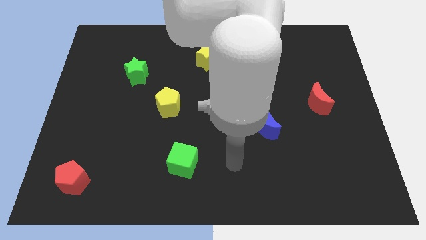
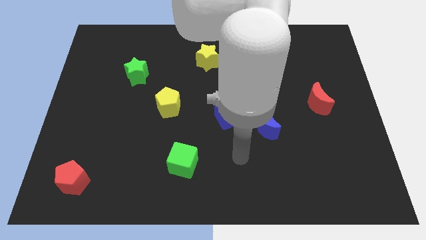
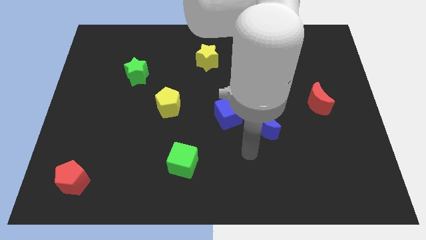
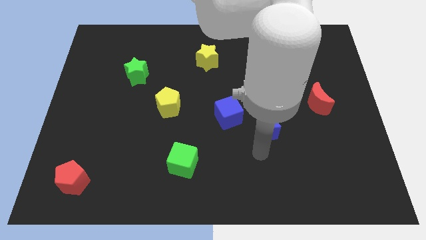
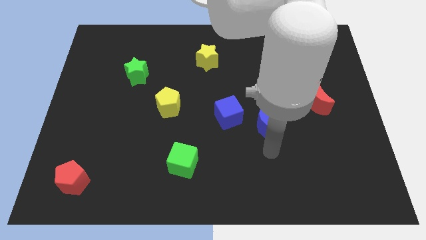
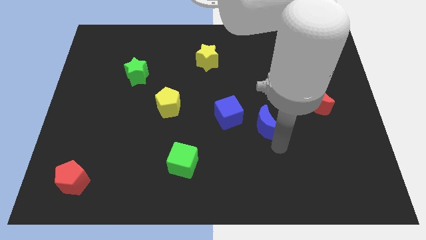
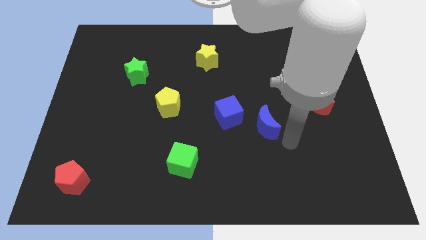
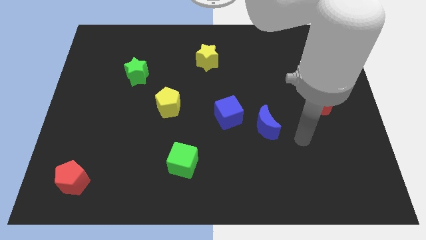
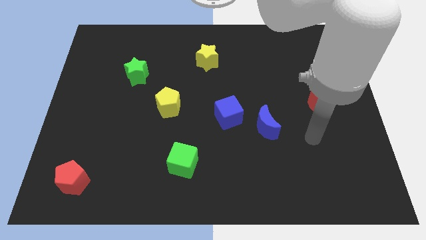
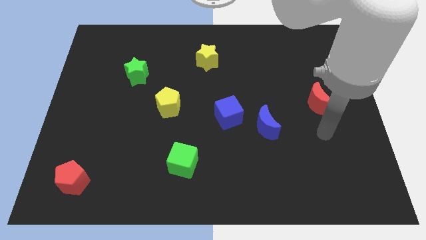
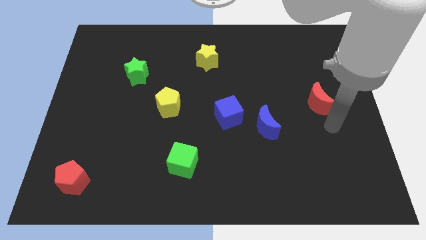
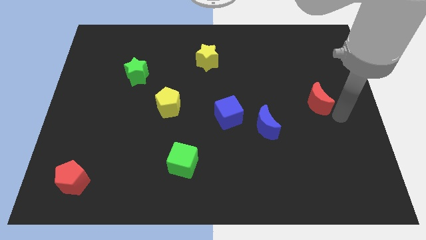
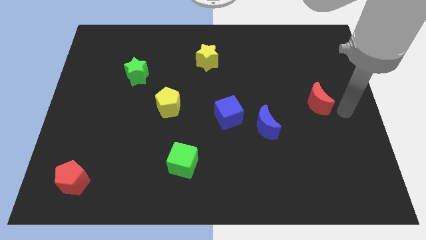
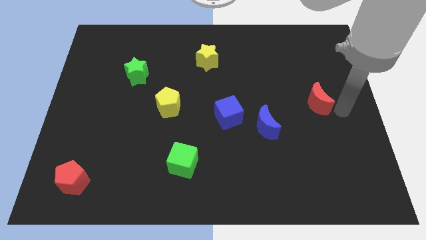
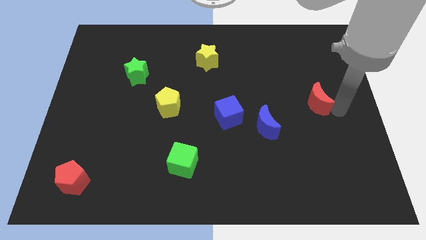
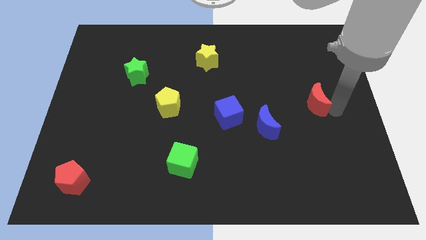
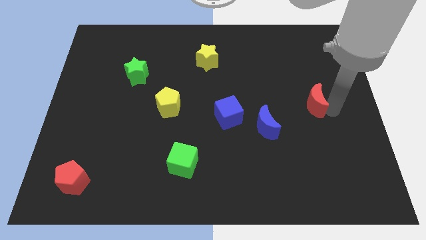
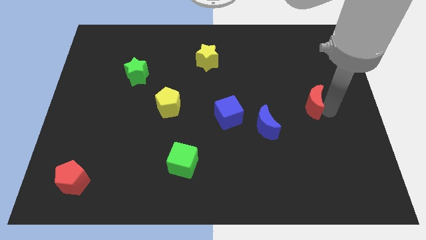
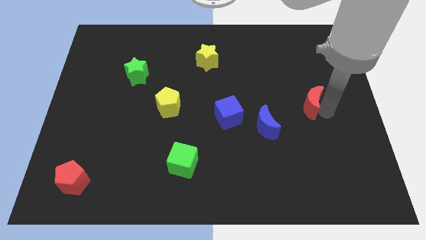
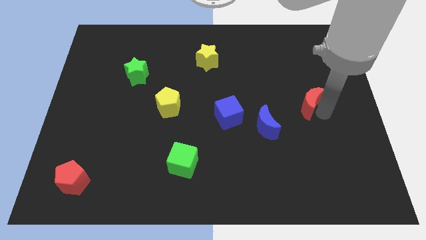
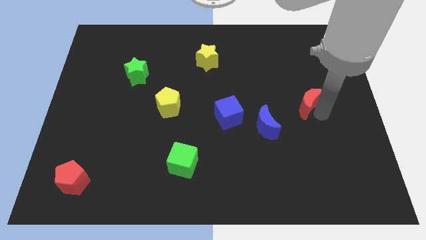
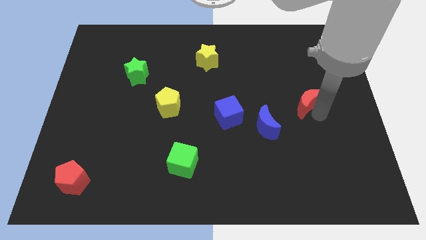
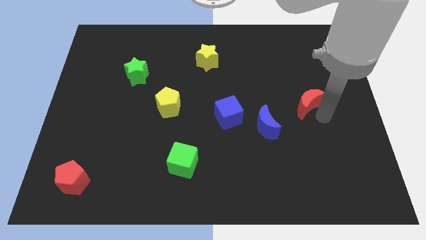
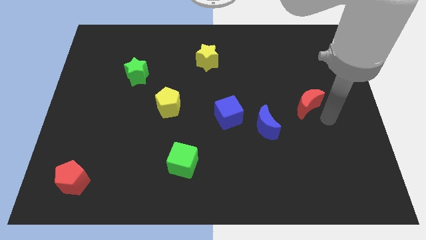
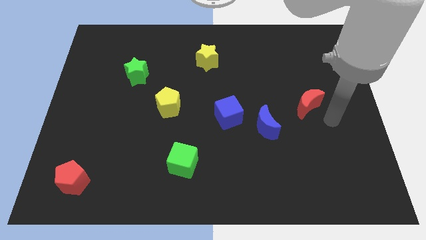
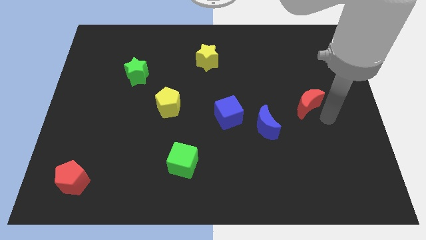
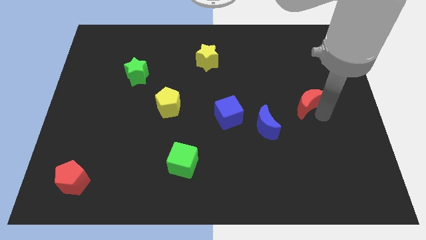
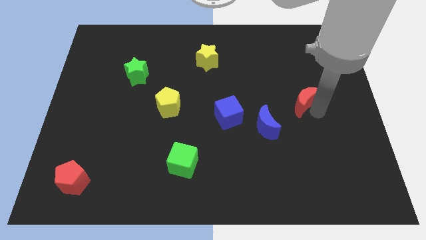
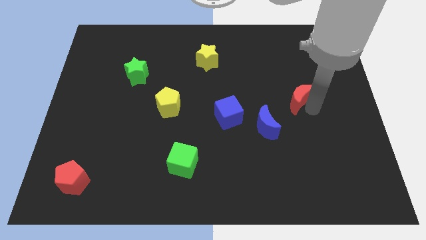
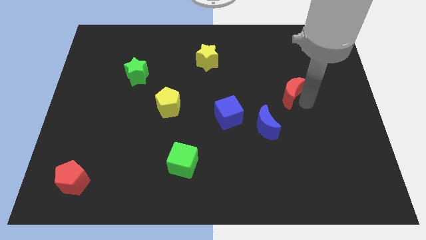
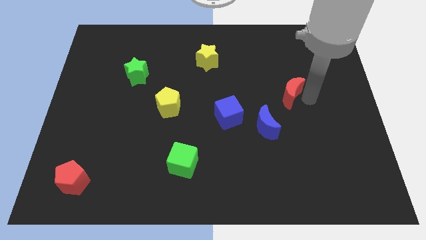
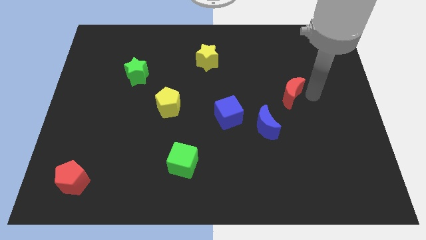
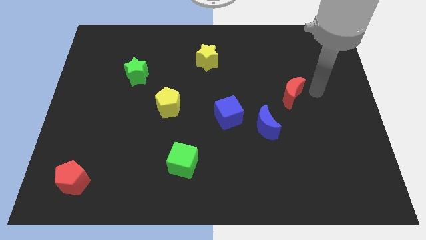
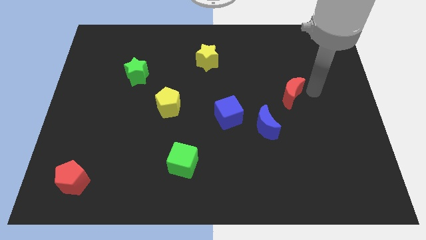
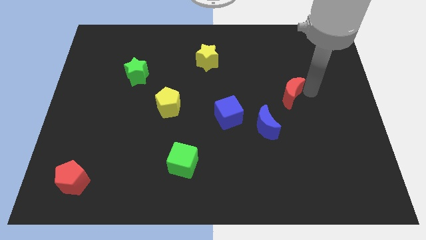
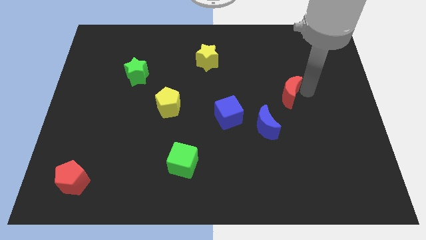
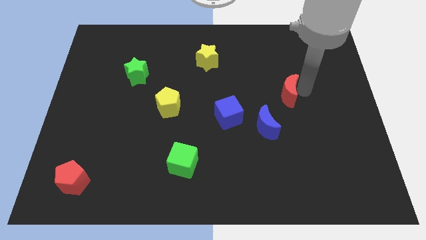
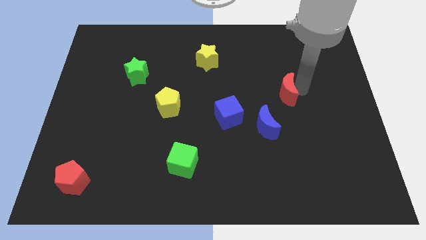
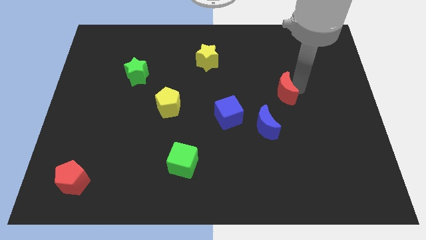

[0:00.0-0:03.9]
push the red moon a little to the left

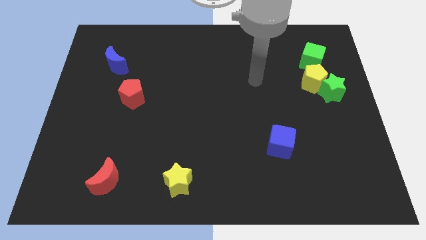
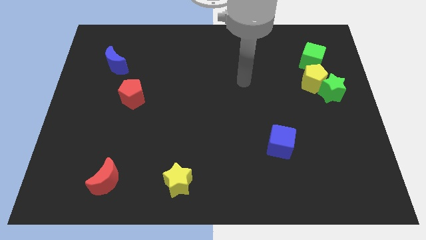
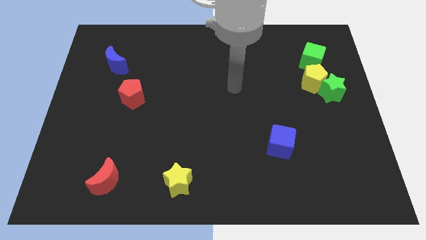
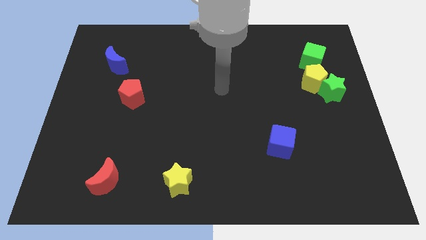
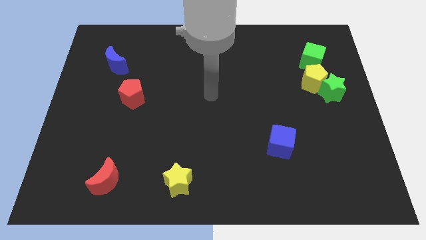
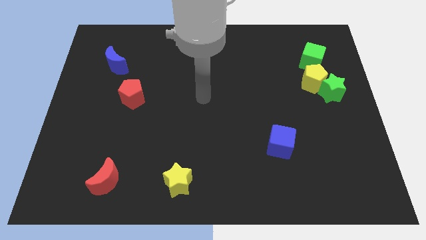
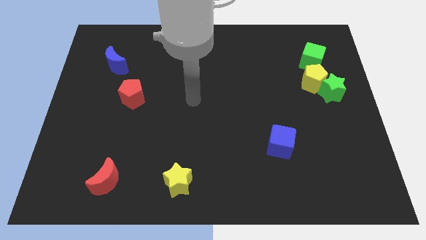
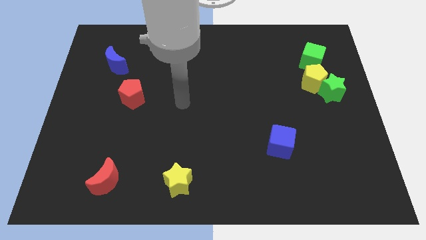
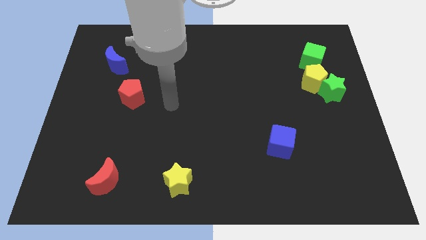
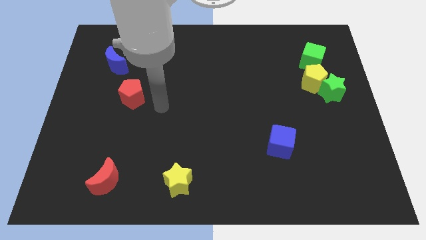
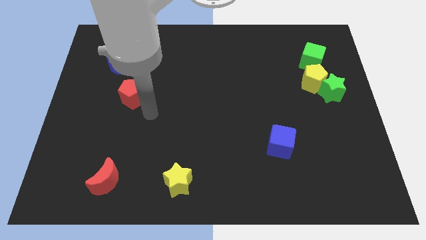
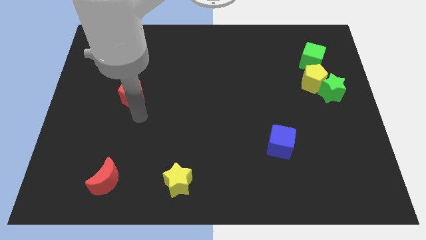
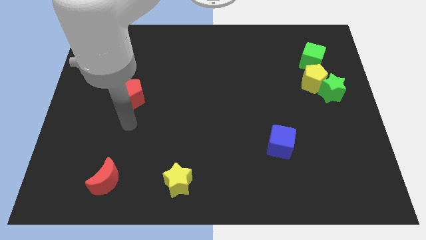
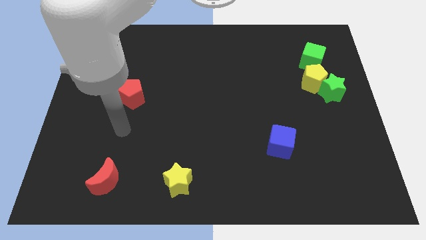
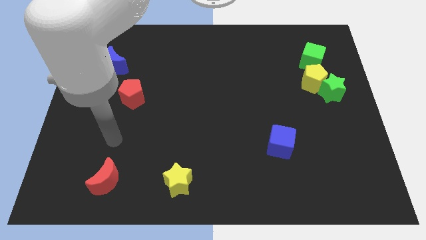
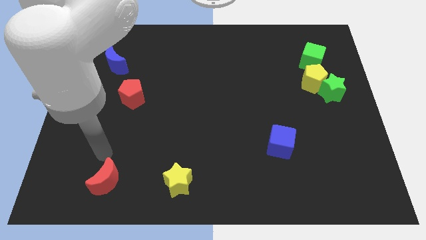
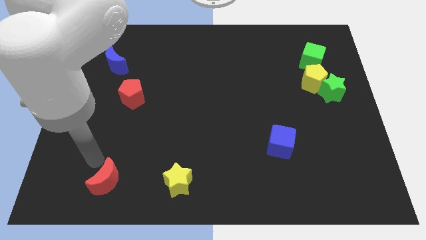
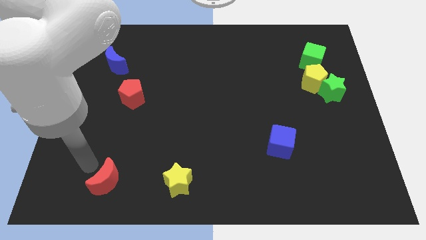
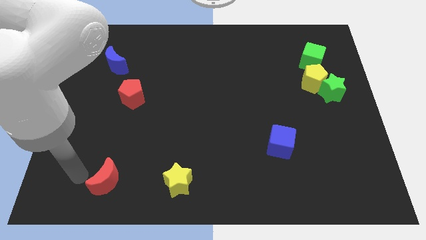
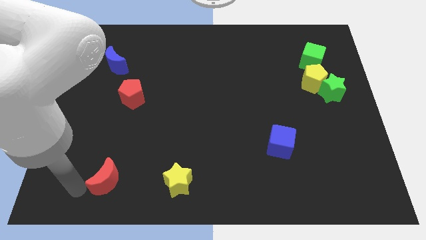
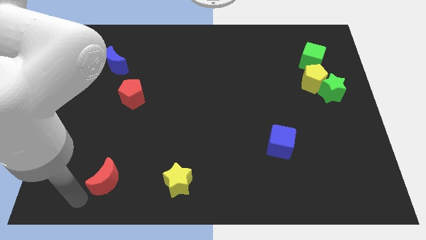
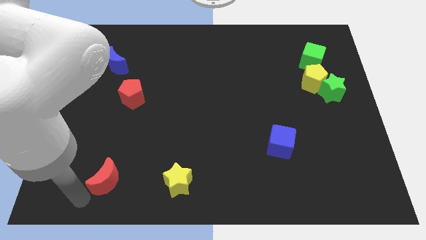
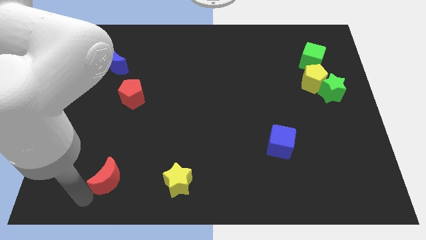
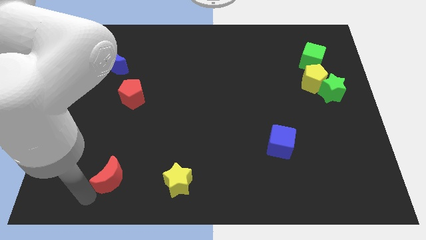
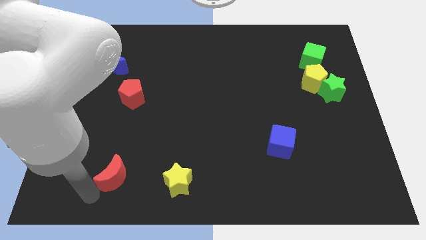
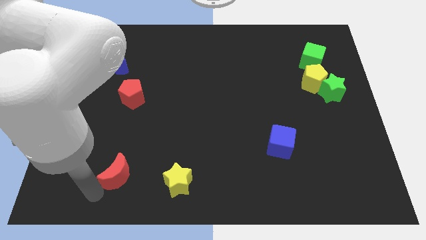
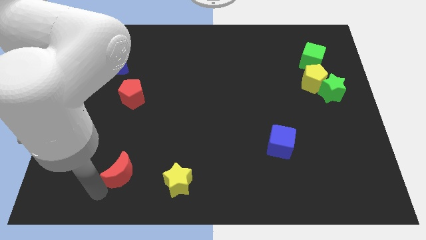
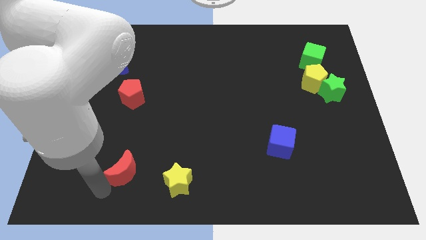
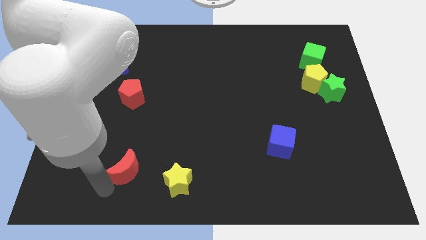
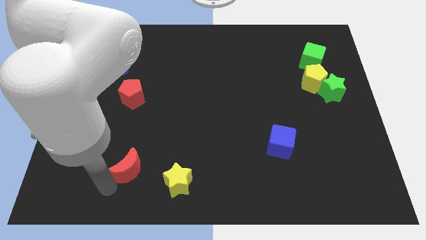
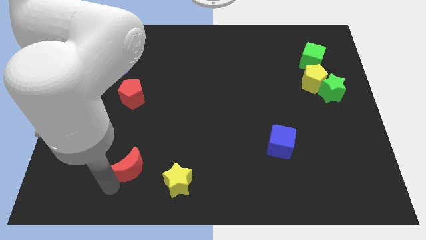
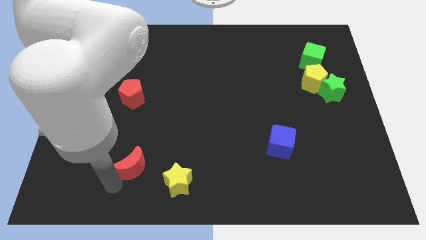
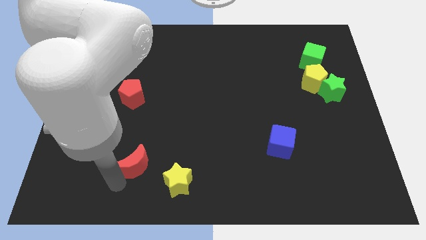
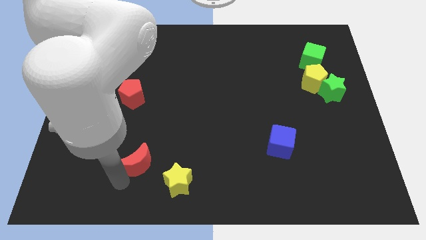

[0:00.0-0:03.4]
push the red moon somewhat upwards and then right

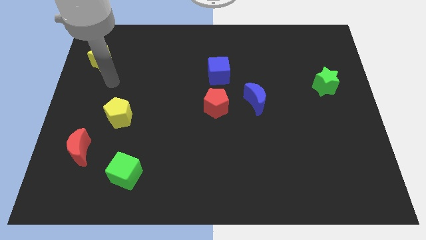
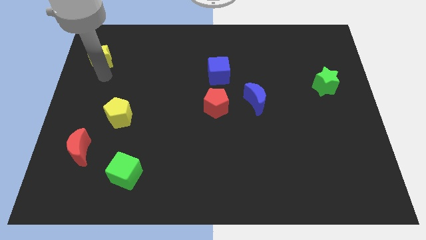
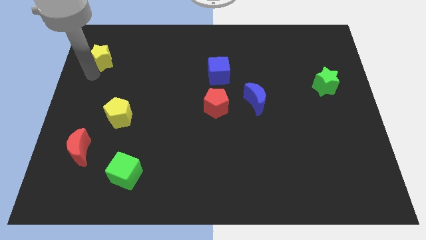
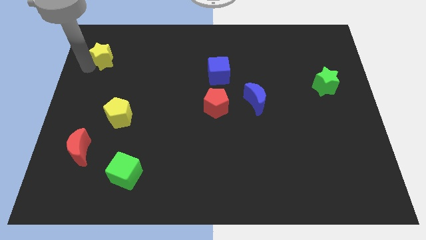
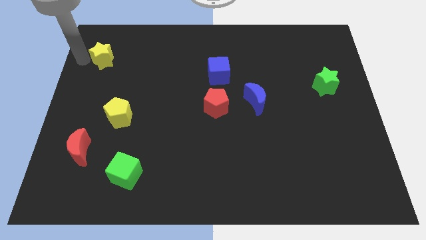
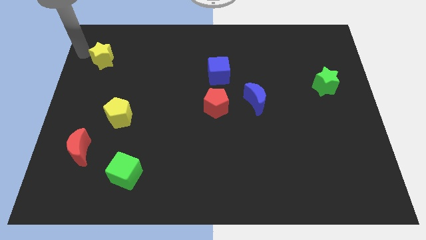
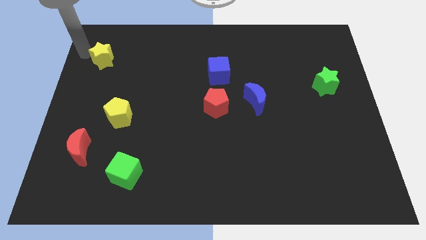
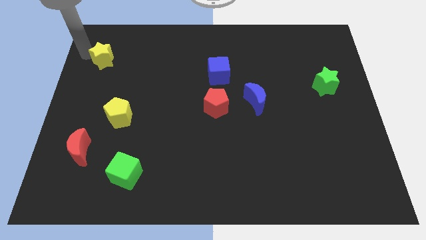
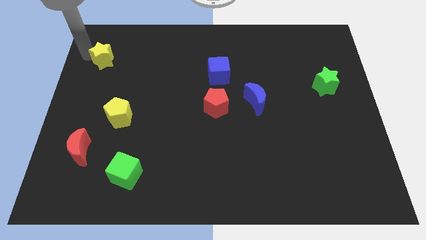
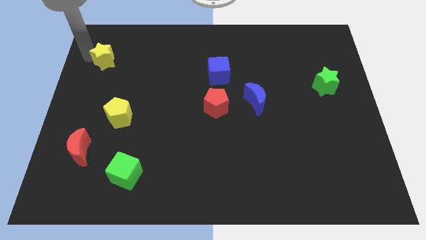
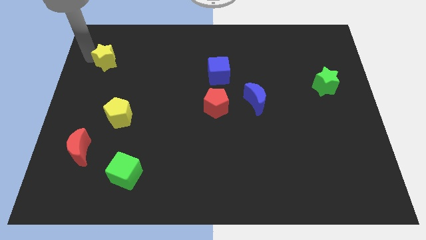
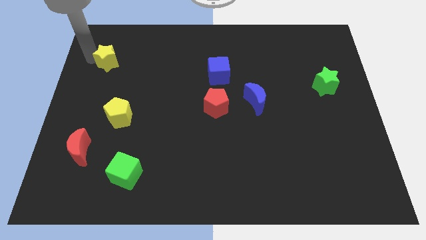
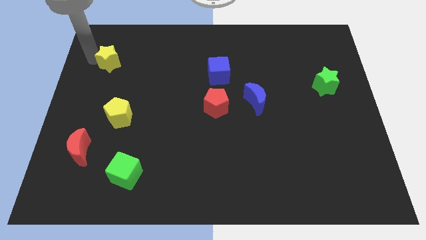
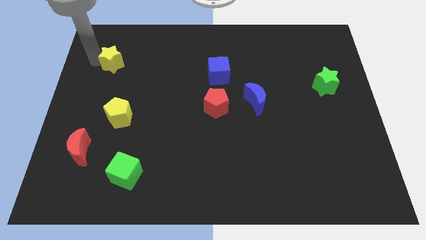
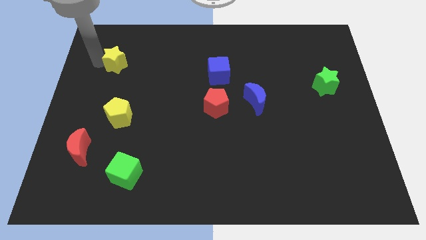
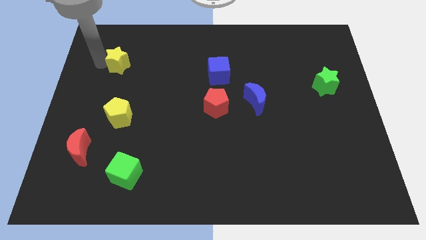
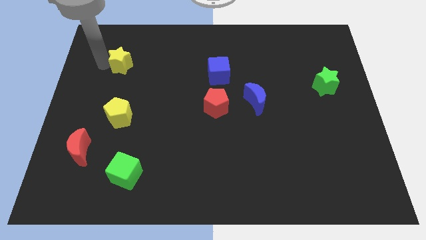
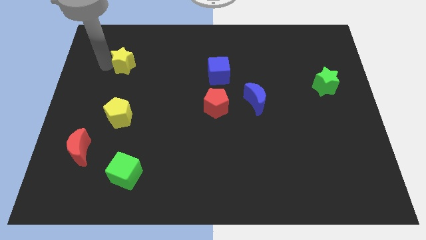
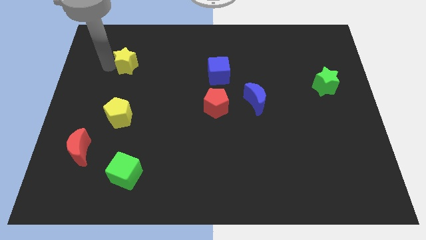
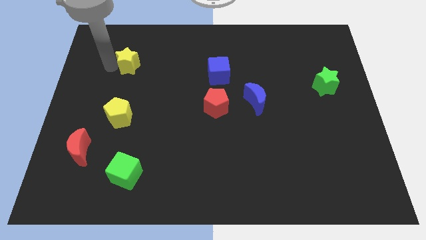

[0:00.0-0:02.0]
slightly move the yellow star right
